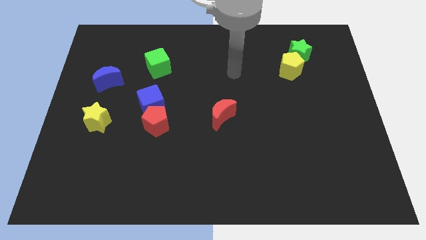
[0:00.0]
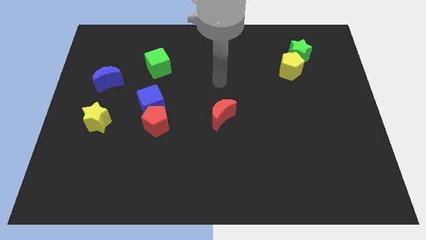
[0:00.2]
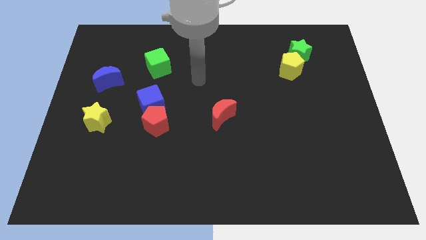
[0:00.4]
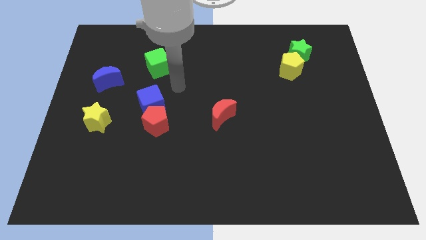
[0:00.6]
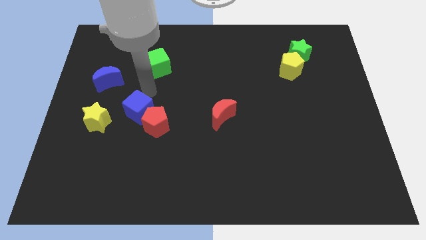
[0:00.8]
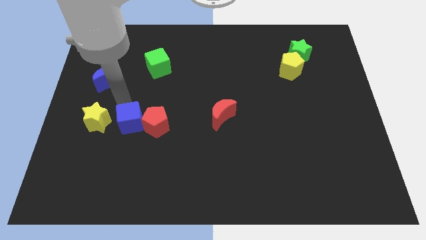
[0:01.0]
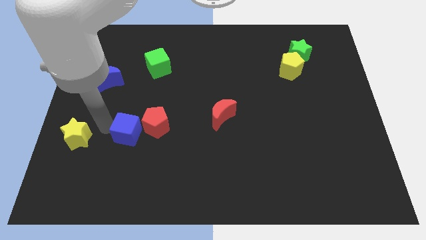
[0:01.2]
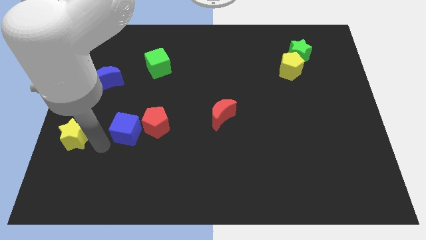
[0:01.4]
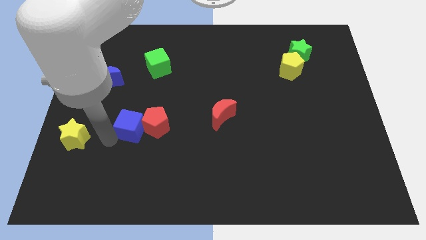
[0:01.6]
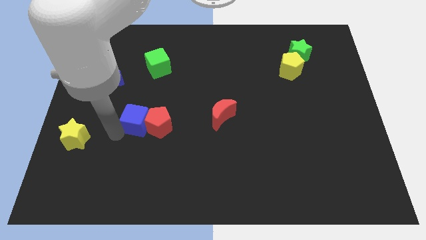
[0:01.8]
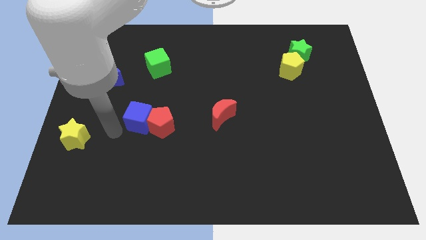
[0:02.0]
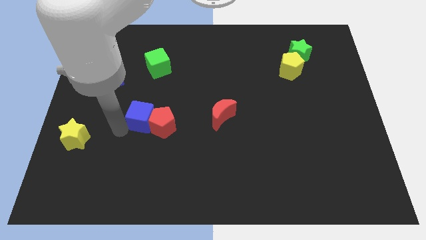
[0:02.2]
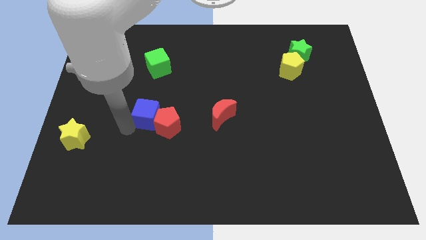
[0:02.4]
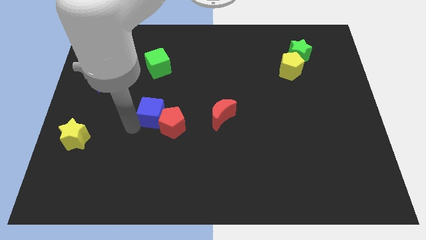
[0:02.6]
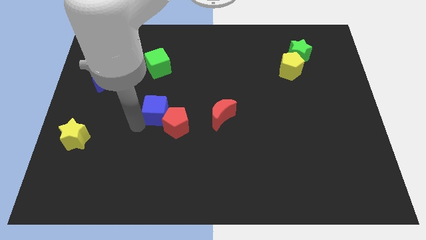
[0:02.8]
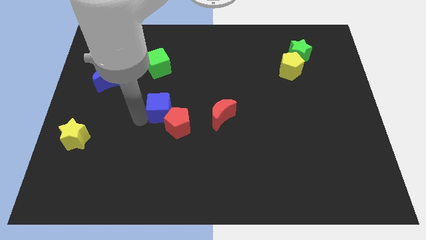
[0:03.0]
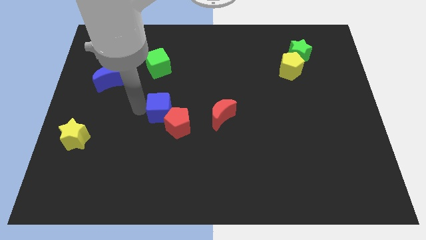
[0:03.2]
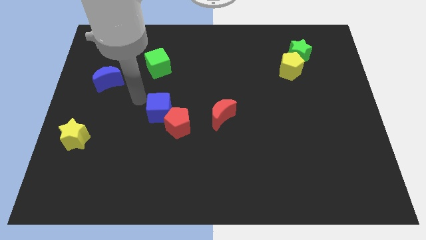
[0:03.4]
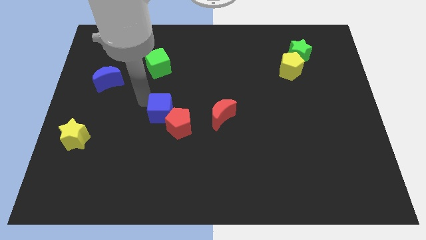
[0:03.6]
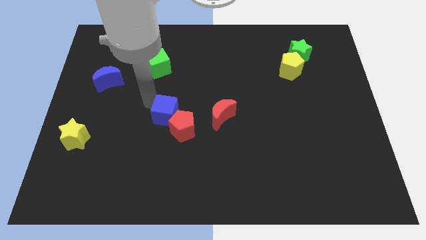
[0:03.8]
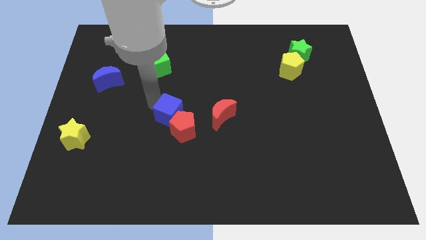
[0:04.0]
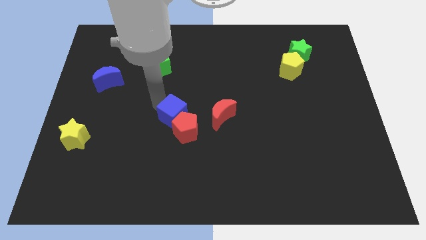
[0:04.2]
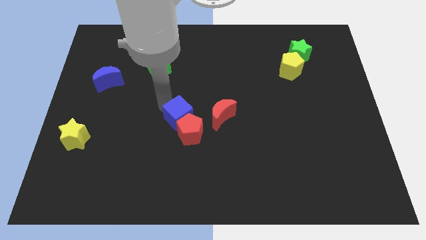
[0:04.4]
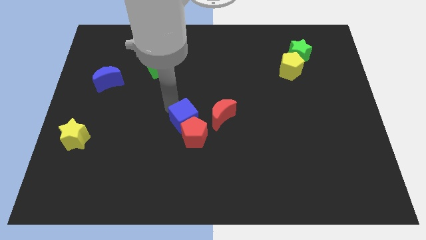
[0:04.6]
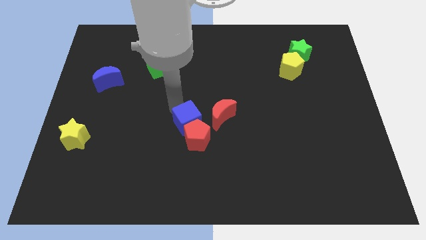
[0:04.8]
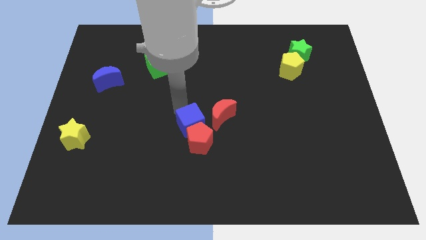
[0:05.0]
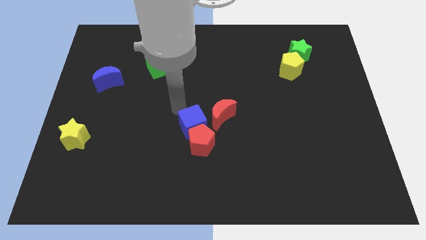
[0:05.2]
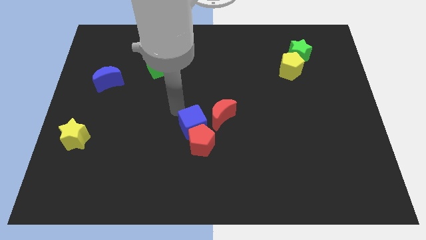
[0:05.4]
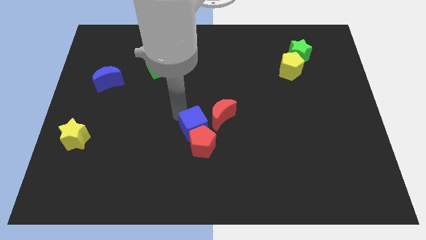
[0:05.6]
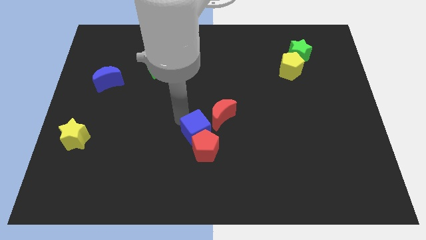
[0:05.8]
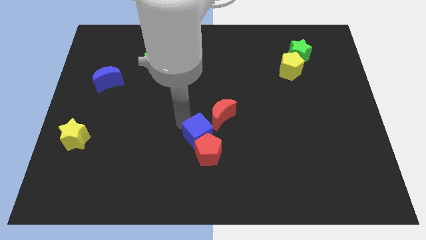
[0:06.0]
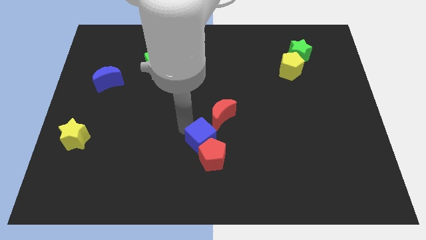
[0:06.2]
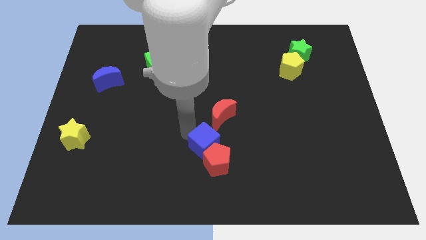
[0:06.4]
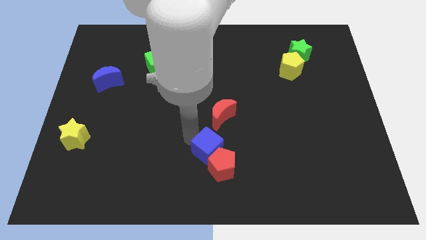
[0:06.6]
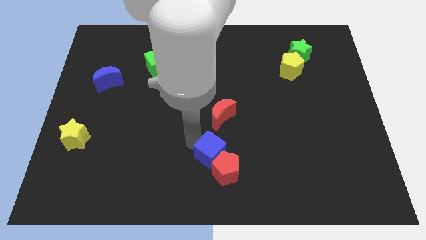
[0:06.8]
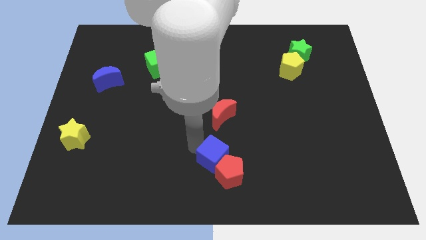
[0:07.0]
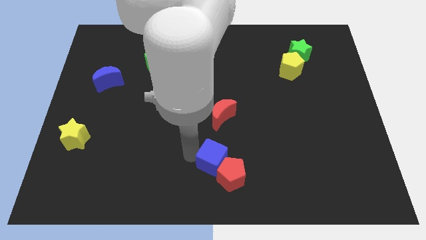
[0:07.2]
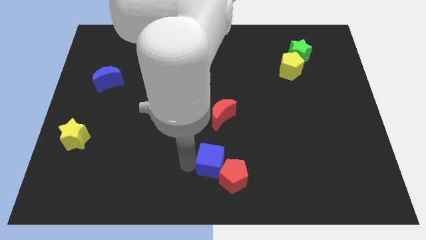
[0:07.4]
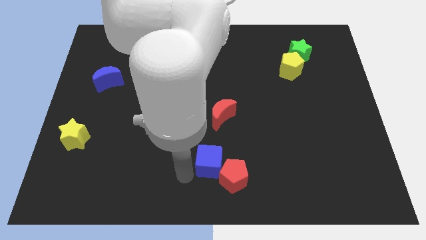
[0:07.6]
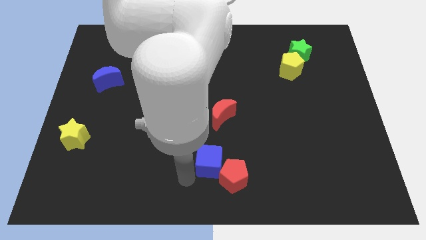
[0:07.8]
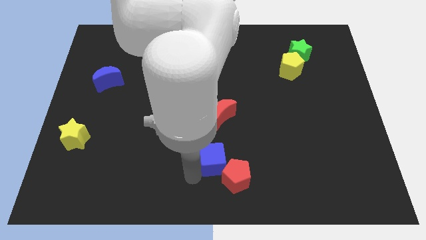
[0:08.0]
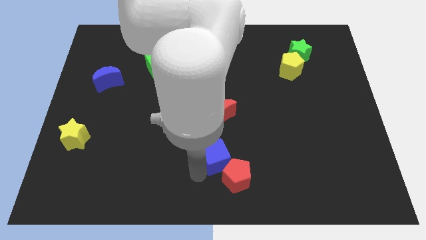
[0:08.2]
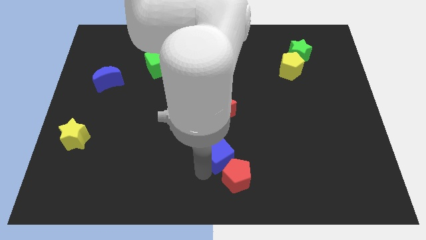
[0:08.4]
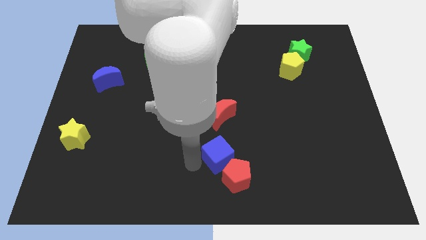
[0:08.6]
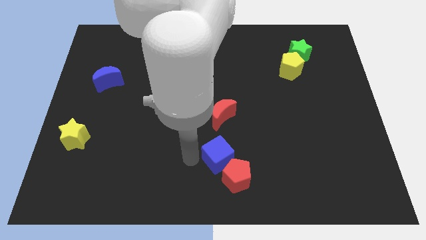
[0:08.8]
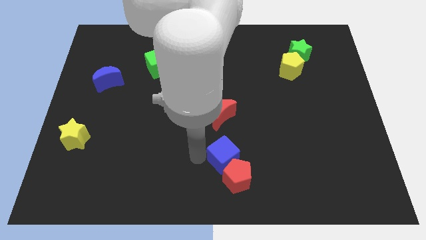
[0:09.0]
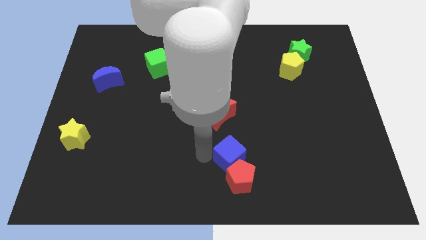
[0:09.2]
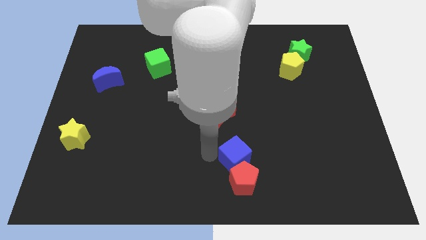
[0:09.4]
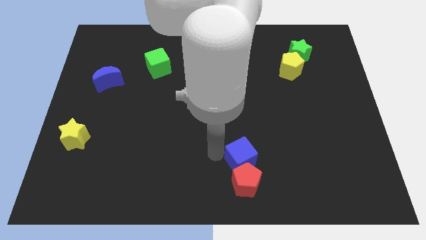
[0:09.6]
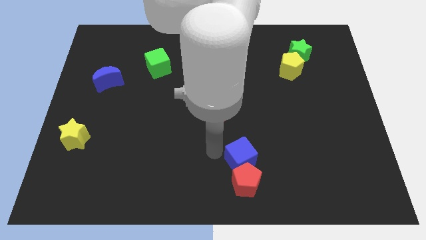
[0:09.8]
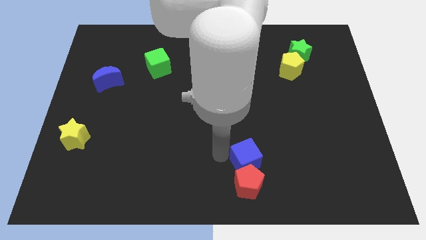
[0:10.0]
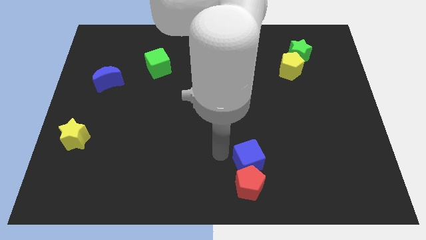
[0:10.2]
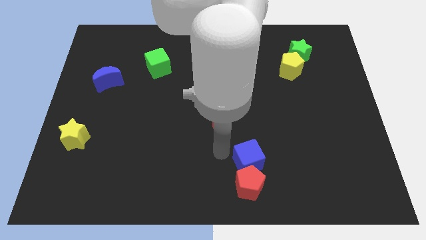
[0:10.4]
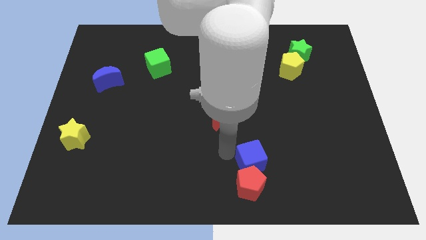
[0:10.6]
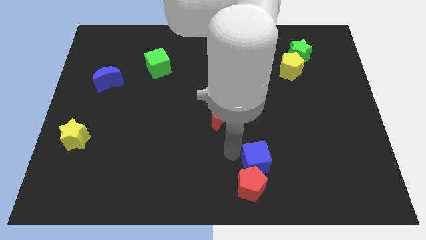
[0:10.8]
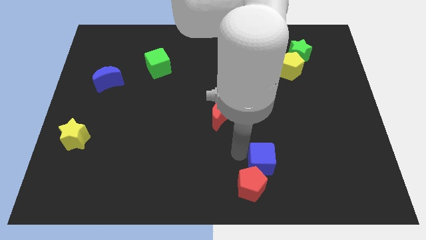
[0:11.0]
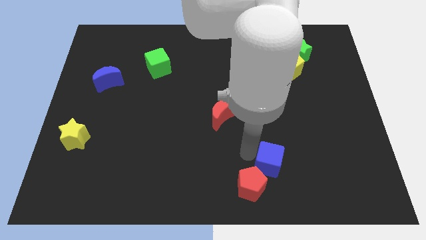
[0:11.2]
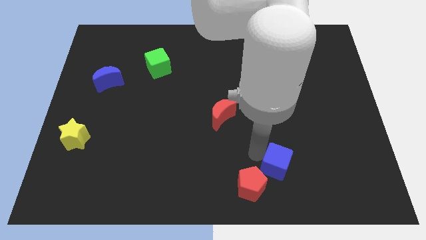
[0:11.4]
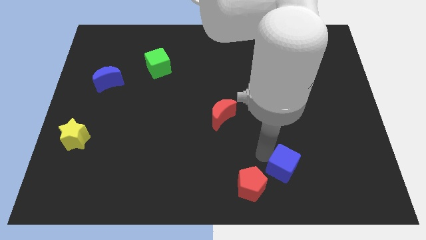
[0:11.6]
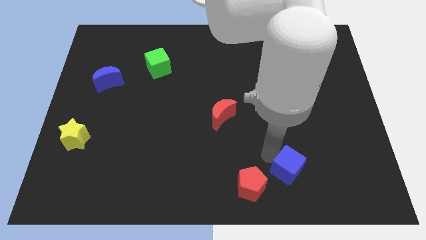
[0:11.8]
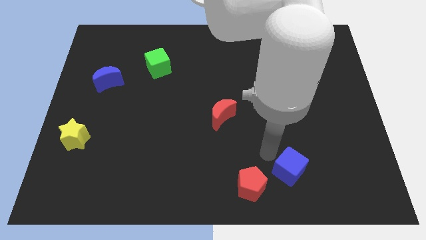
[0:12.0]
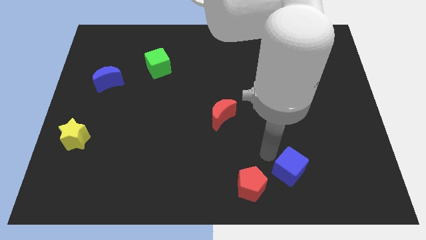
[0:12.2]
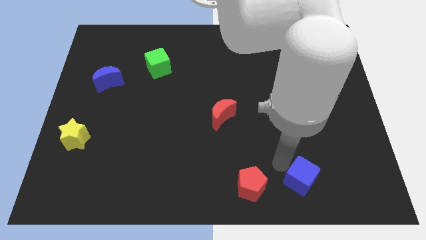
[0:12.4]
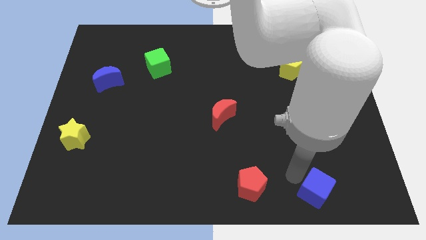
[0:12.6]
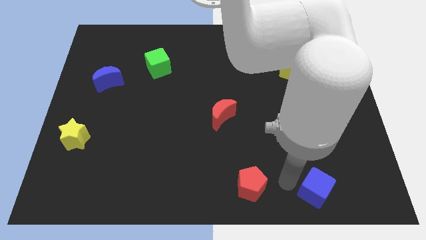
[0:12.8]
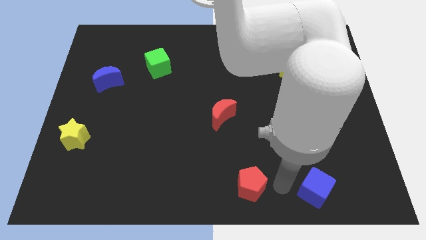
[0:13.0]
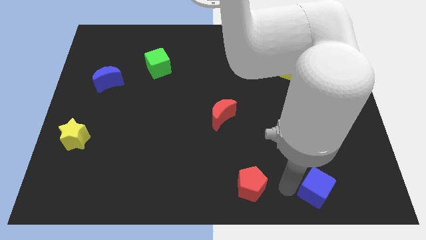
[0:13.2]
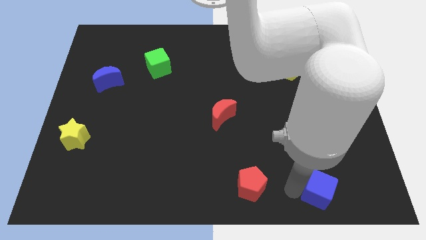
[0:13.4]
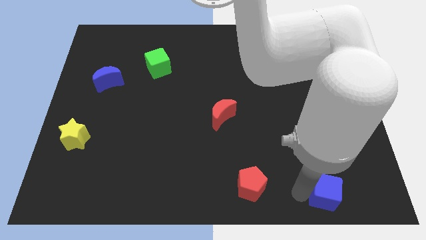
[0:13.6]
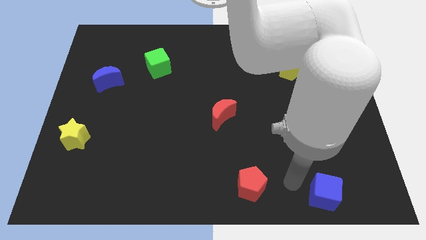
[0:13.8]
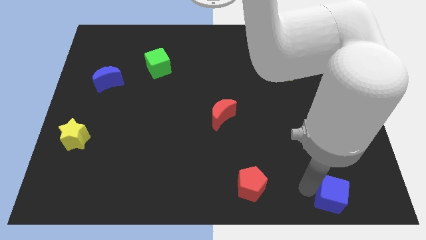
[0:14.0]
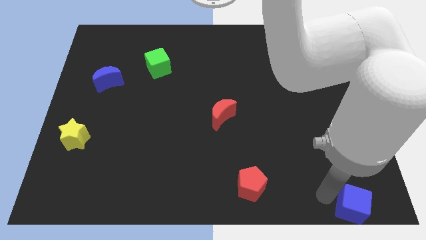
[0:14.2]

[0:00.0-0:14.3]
put the blue cube to the bottom right

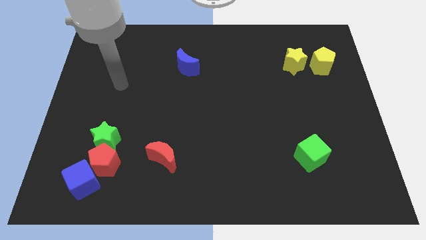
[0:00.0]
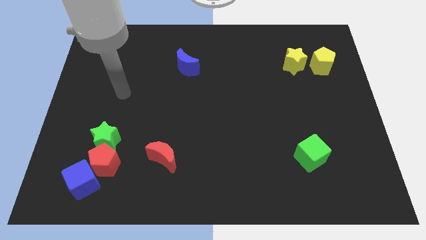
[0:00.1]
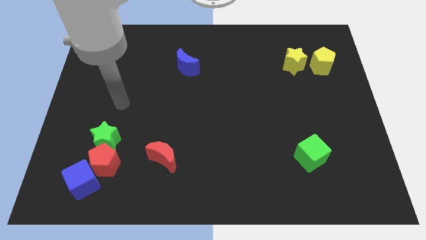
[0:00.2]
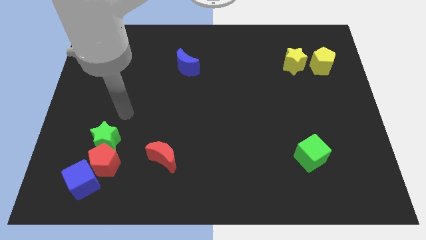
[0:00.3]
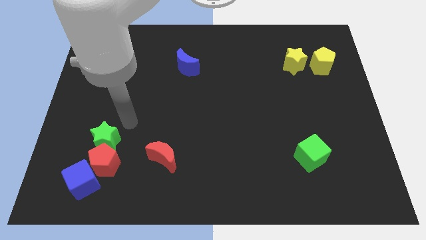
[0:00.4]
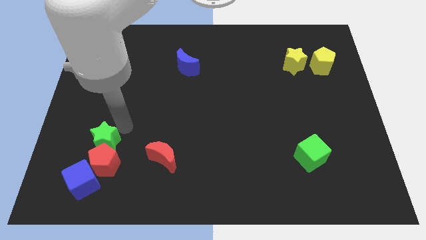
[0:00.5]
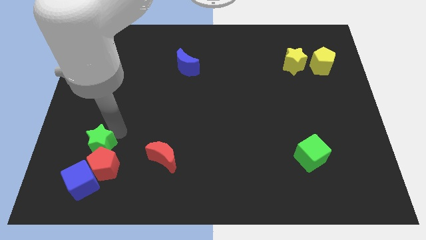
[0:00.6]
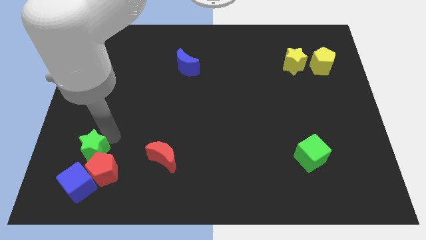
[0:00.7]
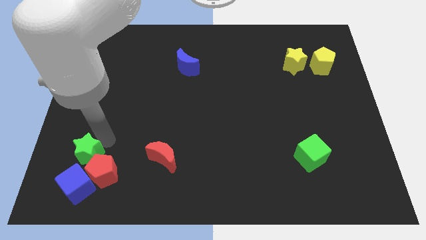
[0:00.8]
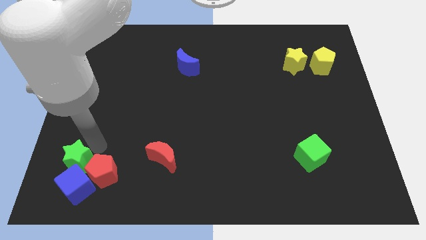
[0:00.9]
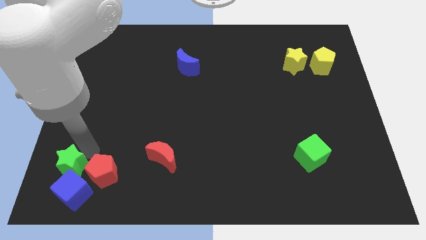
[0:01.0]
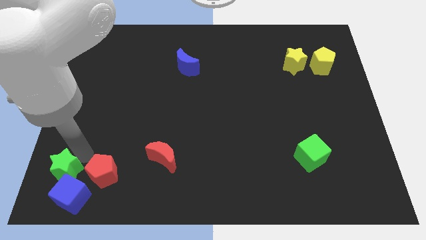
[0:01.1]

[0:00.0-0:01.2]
slide the green star to the bottom left
